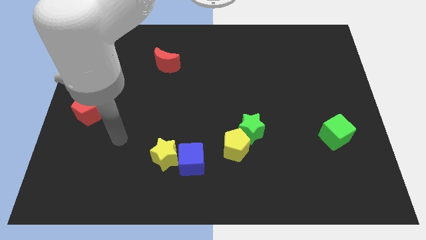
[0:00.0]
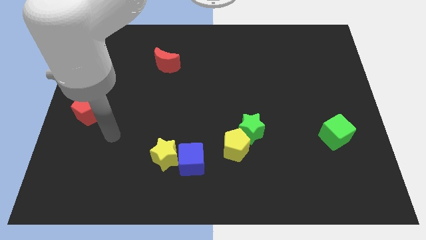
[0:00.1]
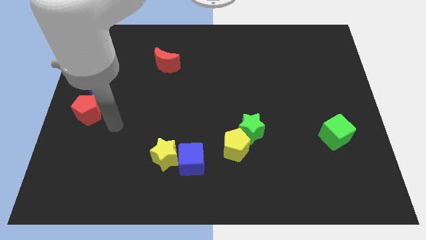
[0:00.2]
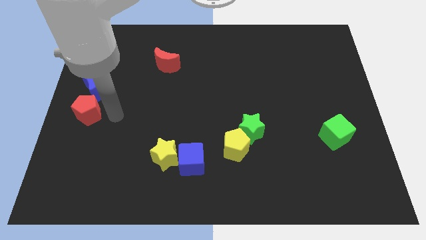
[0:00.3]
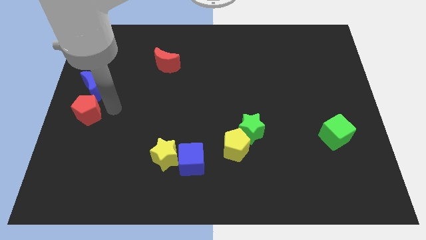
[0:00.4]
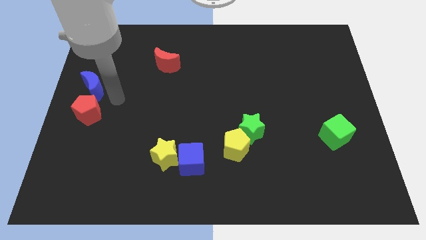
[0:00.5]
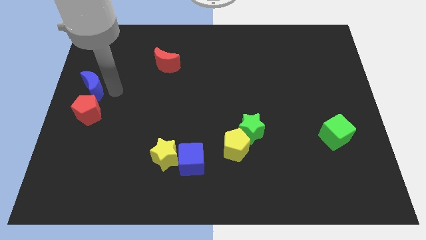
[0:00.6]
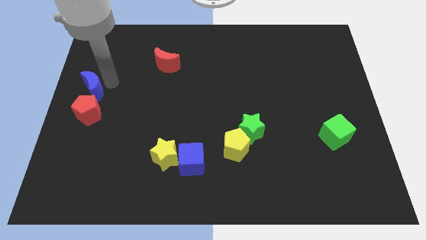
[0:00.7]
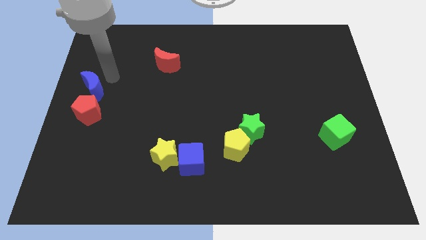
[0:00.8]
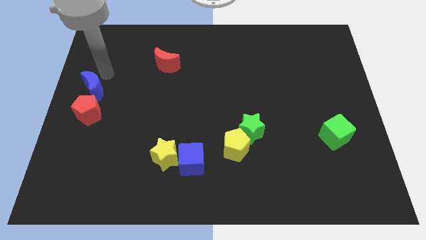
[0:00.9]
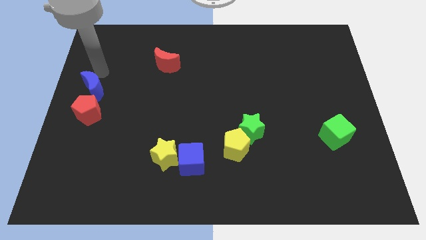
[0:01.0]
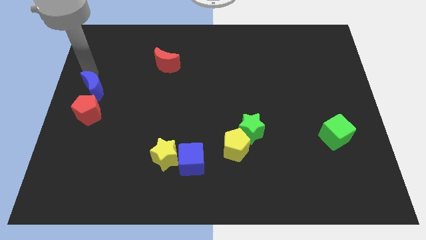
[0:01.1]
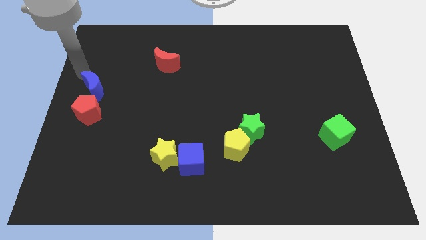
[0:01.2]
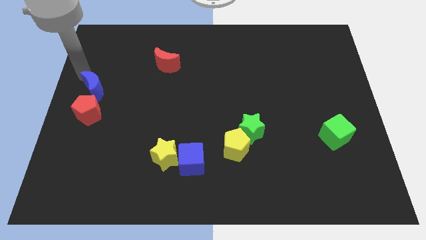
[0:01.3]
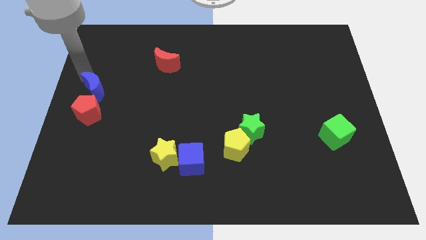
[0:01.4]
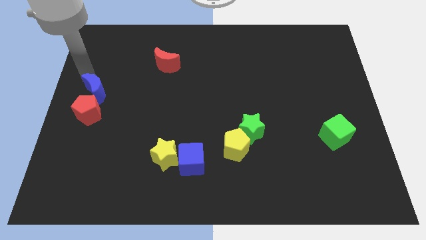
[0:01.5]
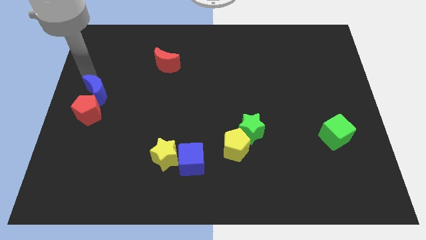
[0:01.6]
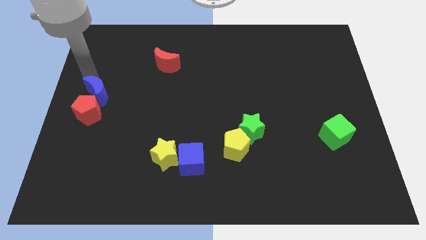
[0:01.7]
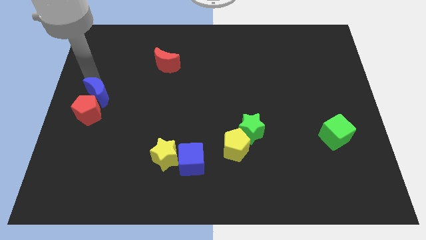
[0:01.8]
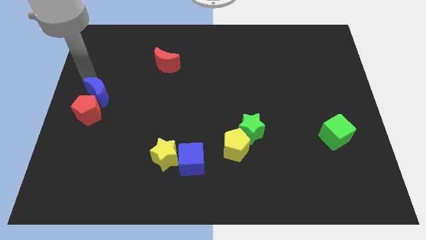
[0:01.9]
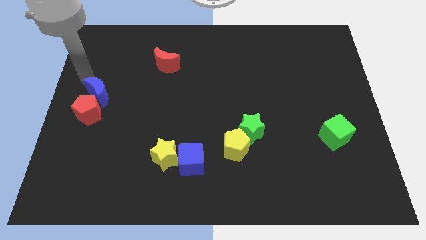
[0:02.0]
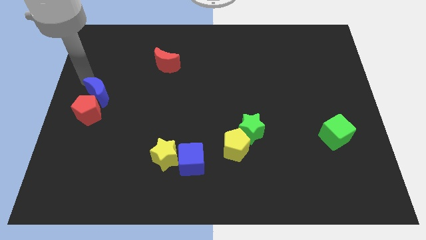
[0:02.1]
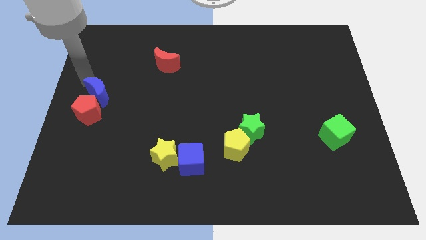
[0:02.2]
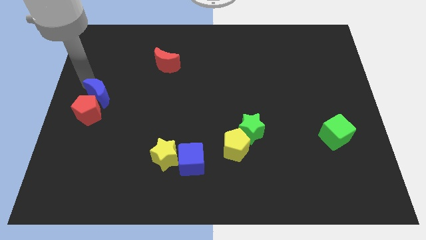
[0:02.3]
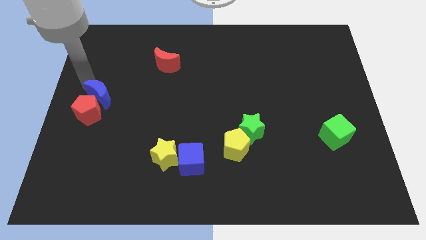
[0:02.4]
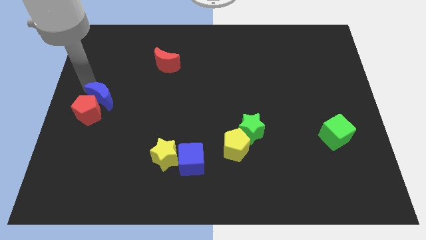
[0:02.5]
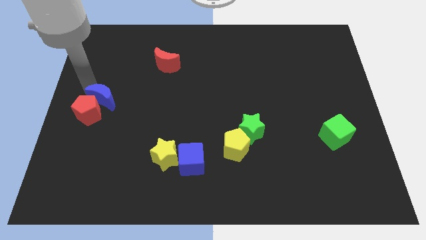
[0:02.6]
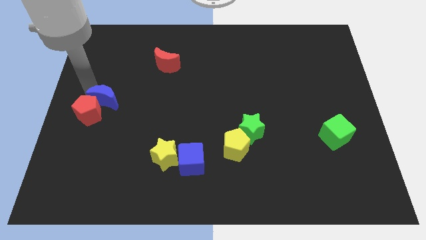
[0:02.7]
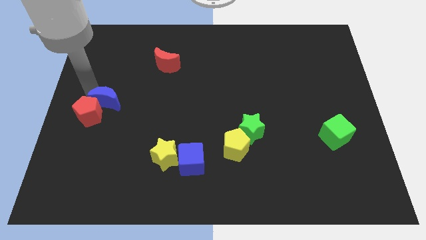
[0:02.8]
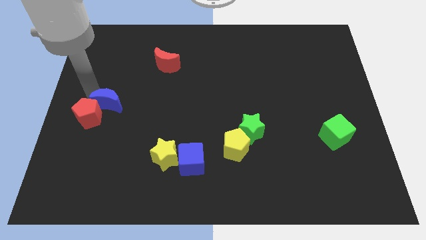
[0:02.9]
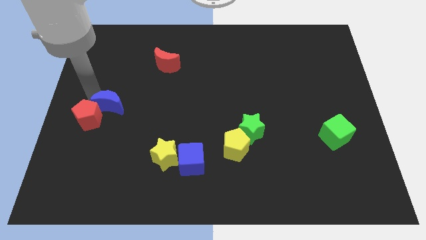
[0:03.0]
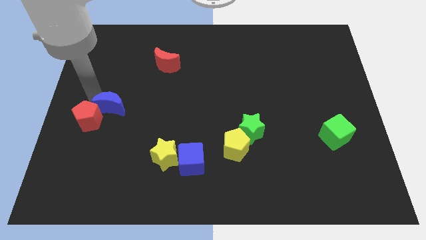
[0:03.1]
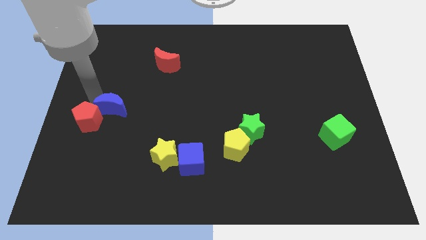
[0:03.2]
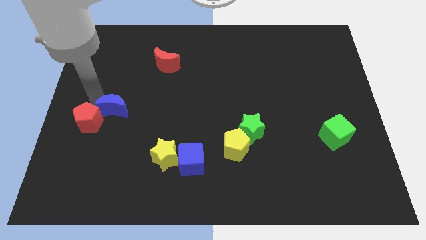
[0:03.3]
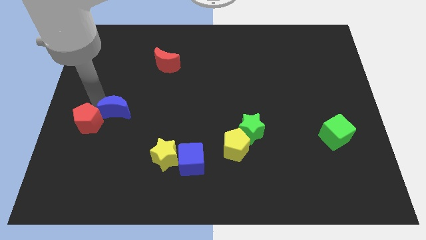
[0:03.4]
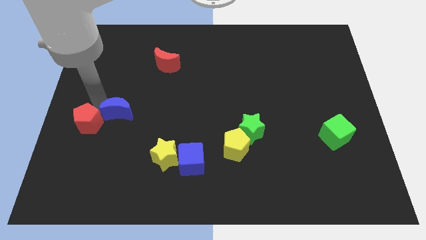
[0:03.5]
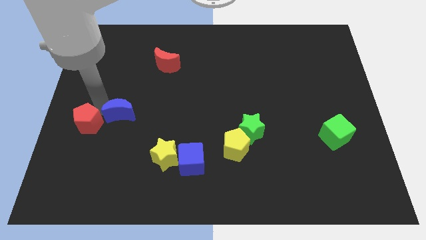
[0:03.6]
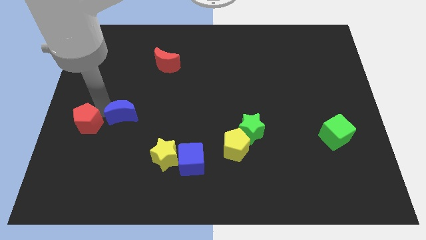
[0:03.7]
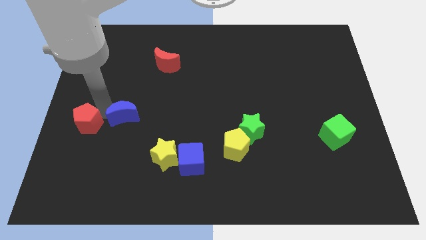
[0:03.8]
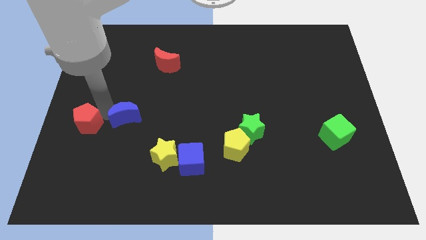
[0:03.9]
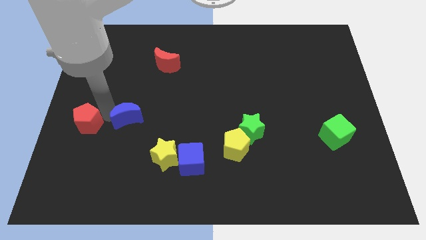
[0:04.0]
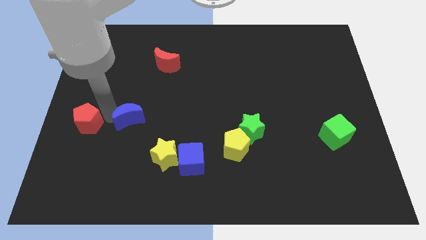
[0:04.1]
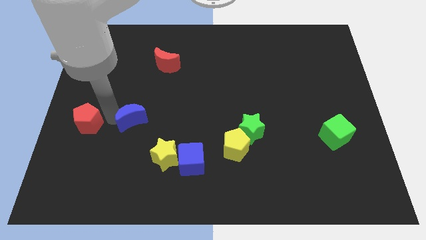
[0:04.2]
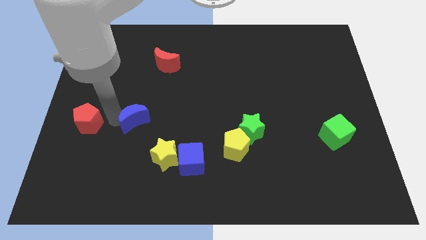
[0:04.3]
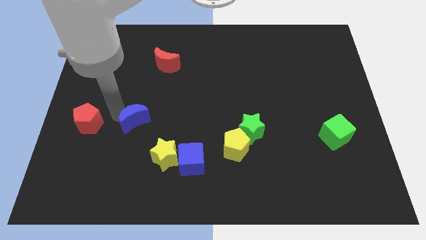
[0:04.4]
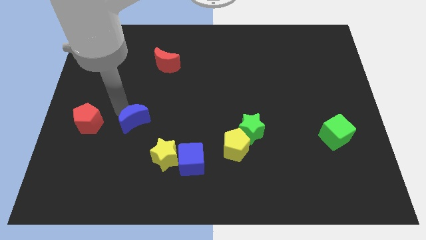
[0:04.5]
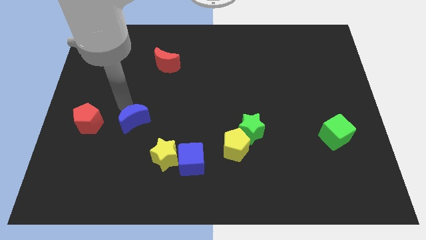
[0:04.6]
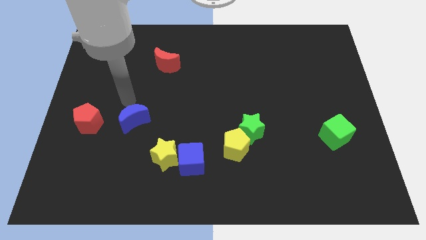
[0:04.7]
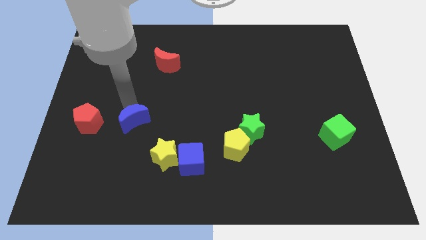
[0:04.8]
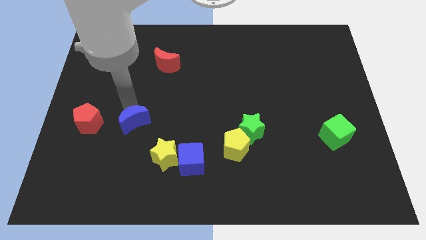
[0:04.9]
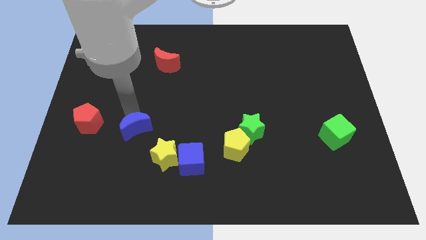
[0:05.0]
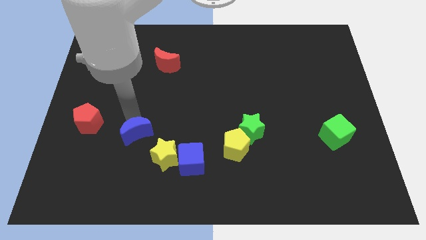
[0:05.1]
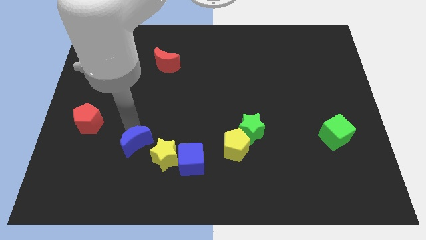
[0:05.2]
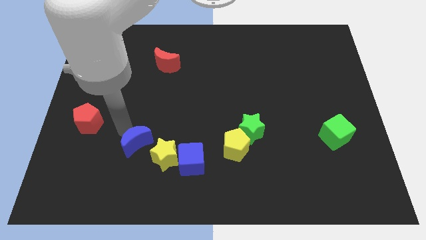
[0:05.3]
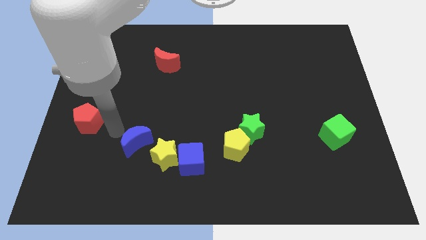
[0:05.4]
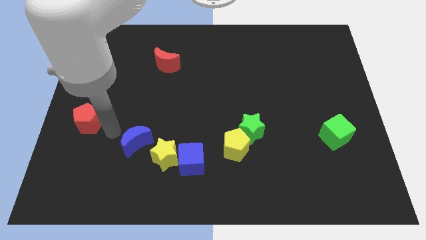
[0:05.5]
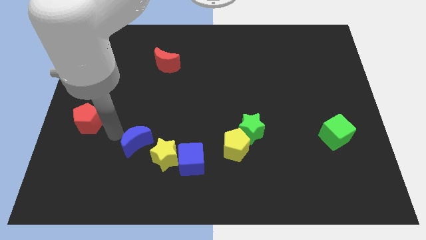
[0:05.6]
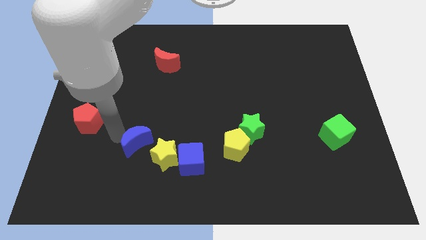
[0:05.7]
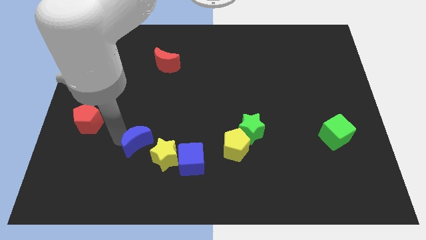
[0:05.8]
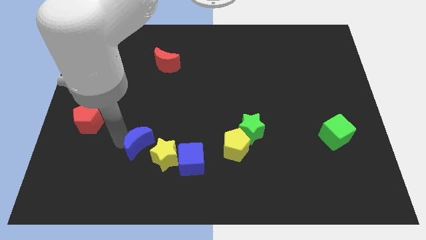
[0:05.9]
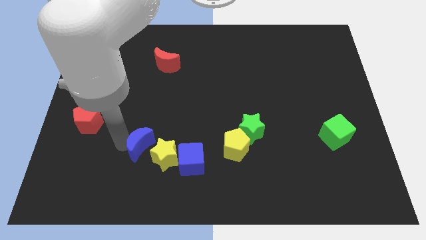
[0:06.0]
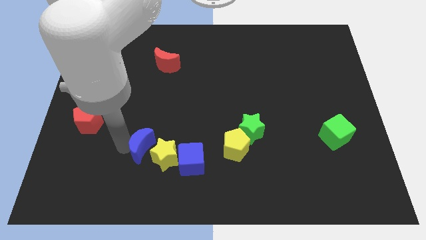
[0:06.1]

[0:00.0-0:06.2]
put the blue moon towards the yellow star
